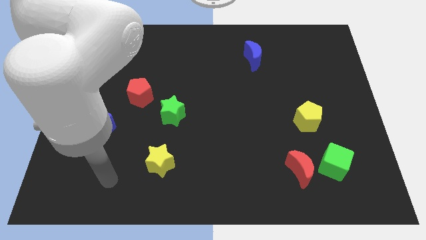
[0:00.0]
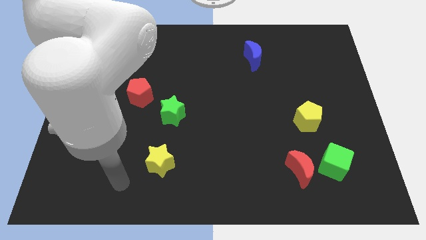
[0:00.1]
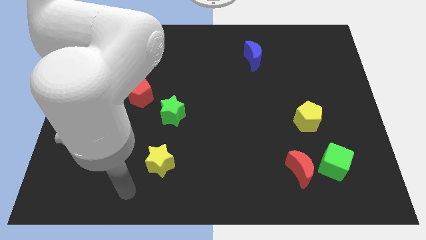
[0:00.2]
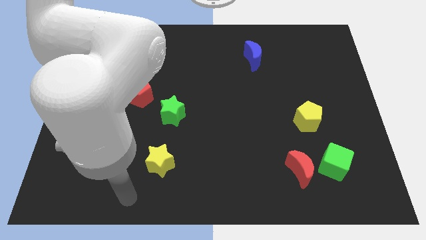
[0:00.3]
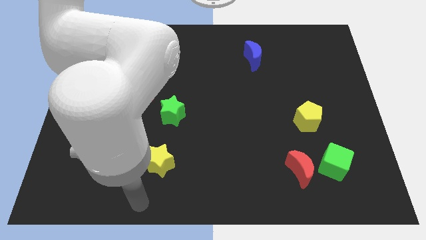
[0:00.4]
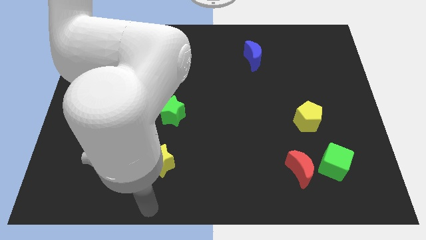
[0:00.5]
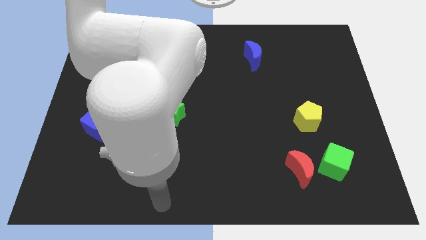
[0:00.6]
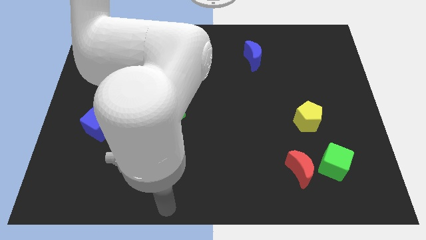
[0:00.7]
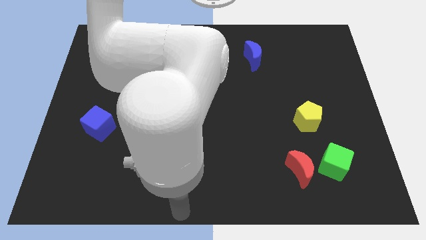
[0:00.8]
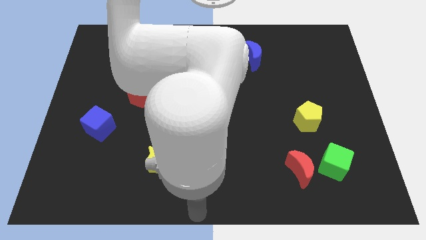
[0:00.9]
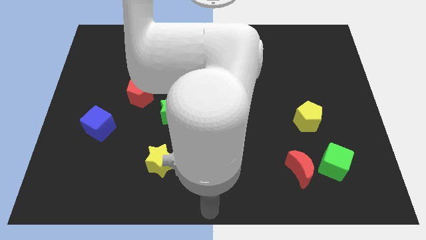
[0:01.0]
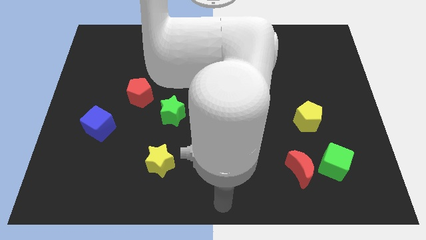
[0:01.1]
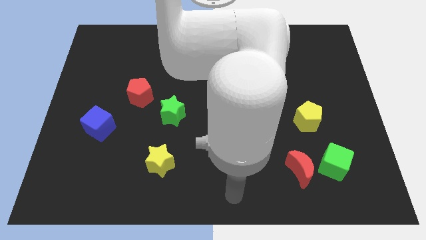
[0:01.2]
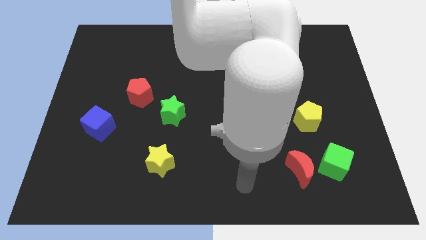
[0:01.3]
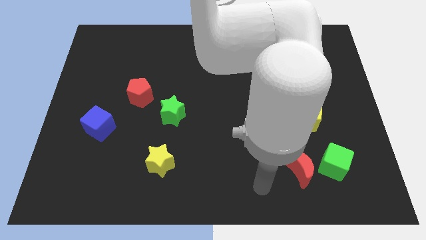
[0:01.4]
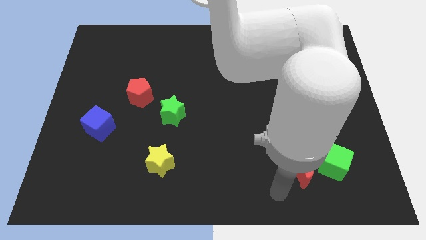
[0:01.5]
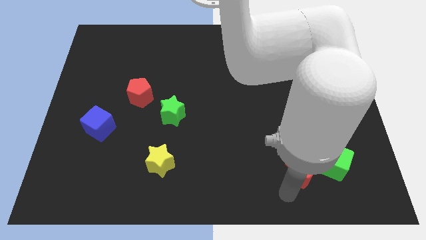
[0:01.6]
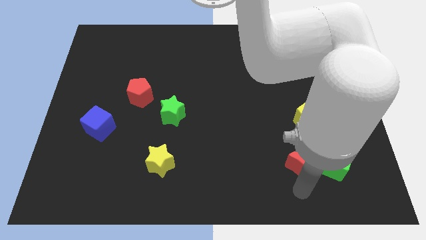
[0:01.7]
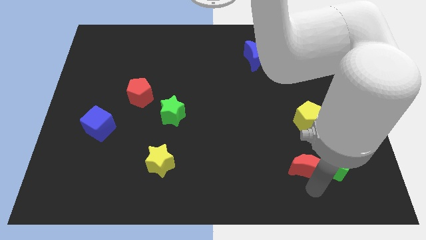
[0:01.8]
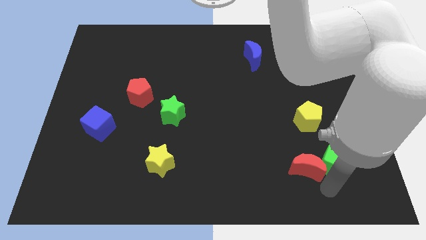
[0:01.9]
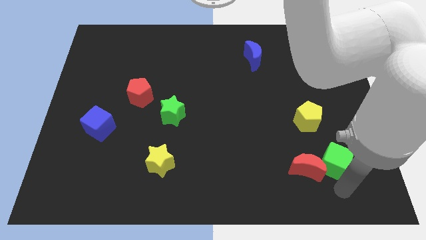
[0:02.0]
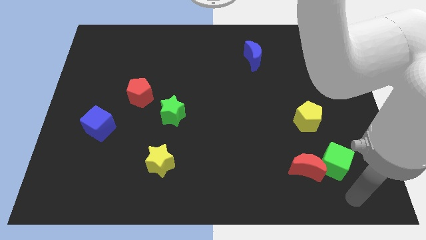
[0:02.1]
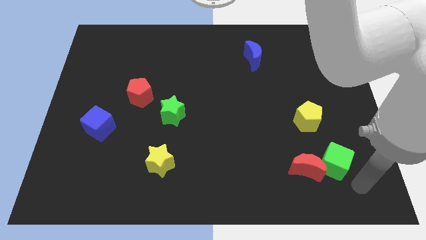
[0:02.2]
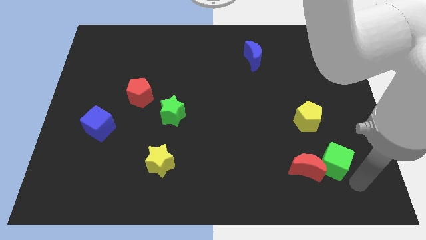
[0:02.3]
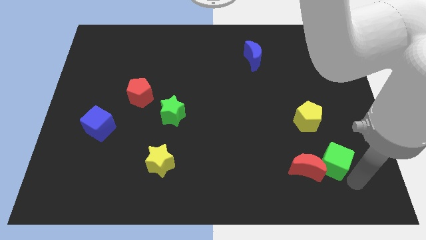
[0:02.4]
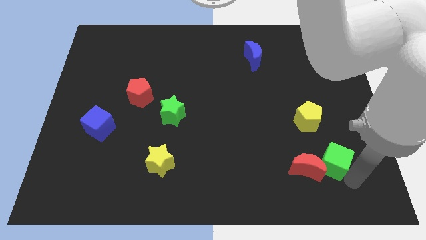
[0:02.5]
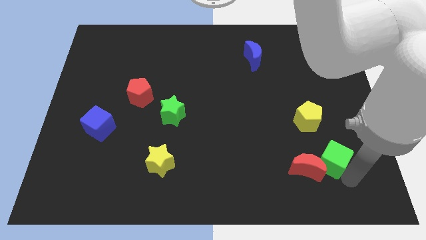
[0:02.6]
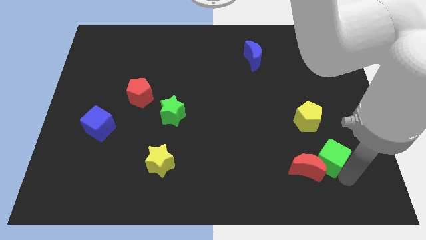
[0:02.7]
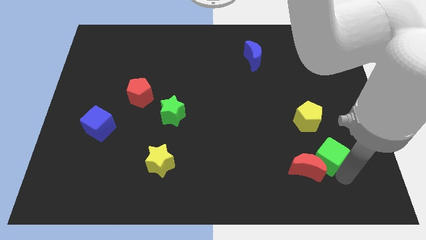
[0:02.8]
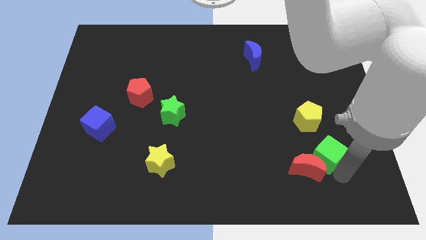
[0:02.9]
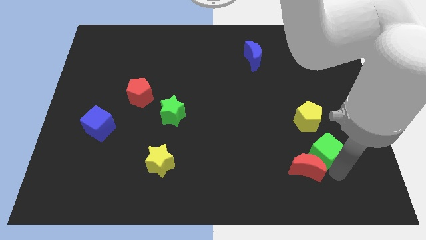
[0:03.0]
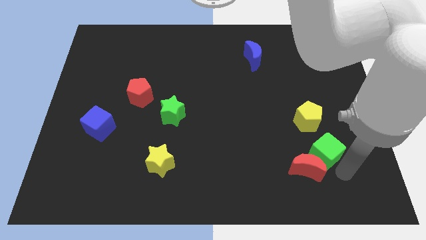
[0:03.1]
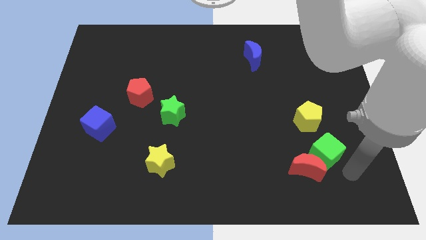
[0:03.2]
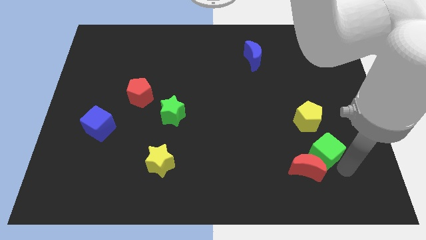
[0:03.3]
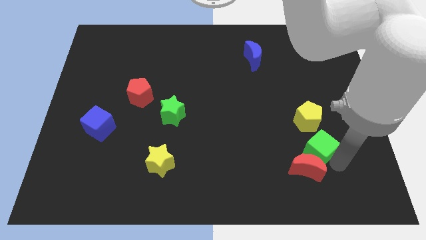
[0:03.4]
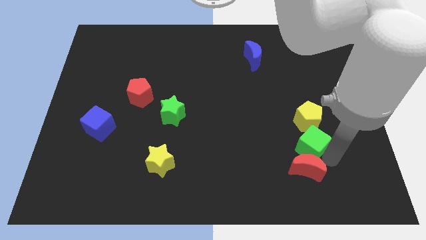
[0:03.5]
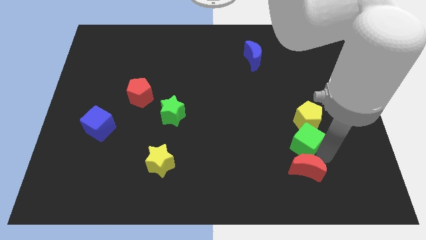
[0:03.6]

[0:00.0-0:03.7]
push the green cube slightly diagonally up and left

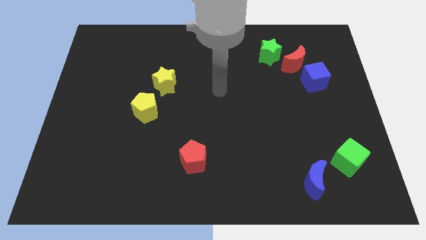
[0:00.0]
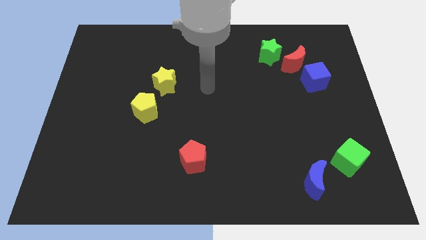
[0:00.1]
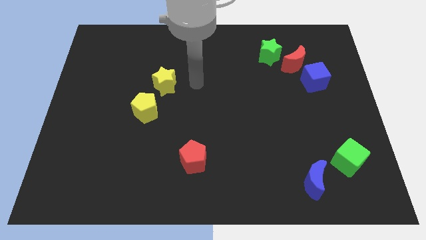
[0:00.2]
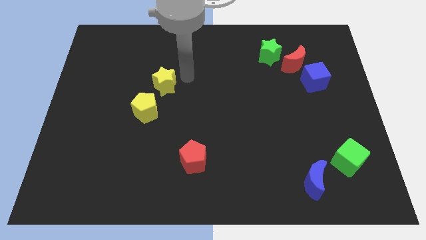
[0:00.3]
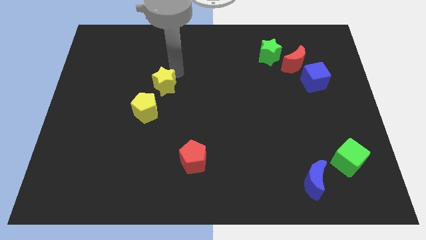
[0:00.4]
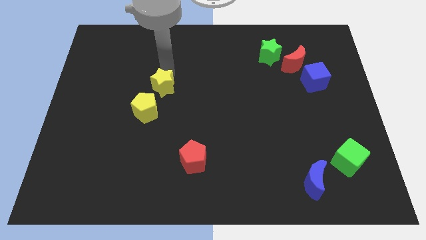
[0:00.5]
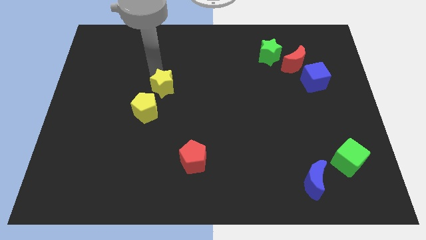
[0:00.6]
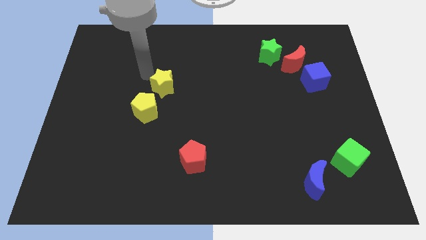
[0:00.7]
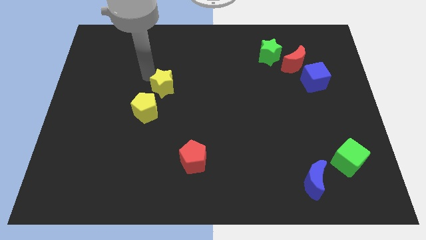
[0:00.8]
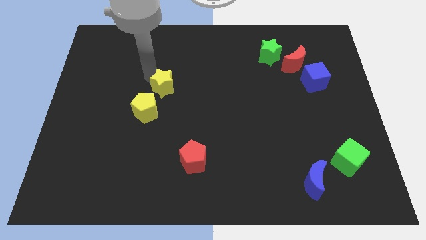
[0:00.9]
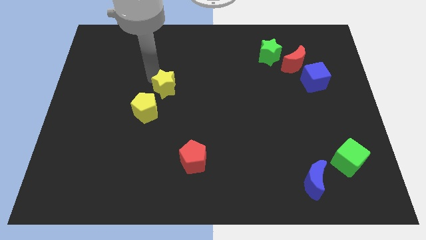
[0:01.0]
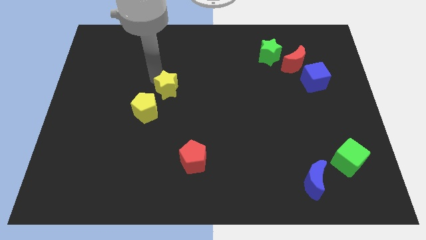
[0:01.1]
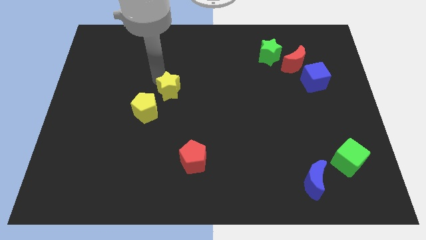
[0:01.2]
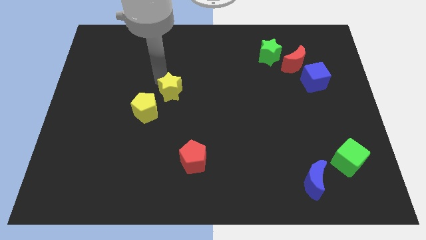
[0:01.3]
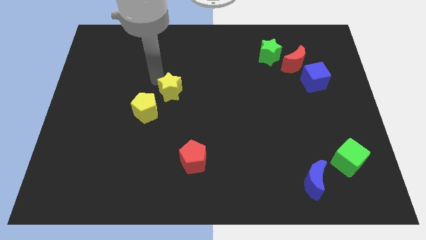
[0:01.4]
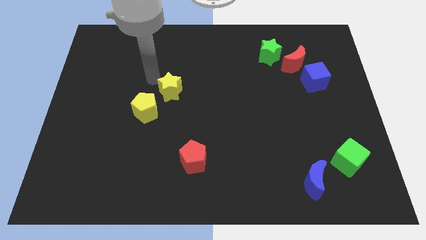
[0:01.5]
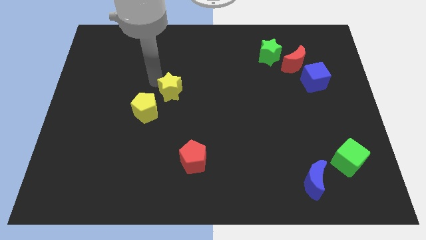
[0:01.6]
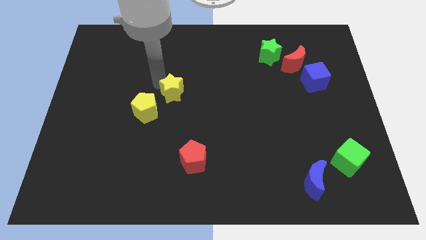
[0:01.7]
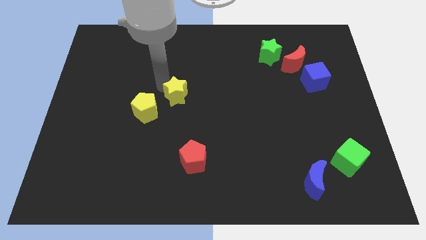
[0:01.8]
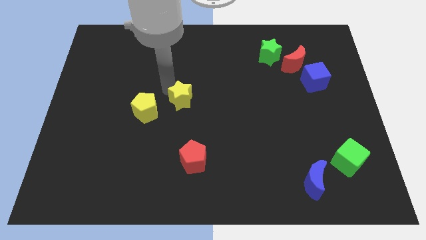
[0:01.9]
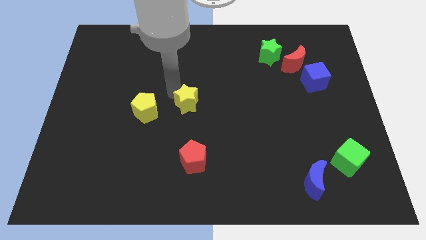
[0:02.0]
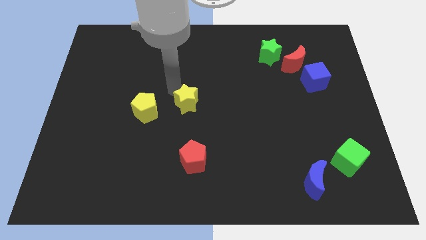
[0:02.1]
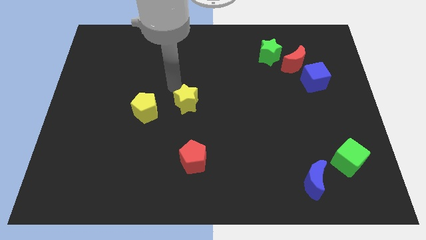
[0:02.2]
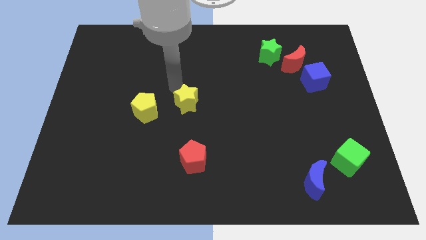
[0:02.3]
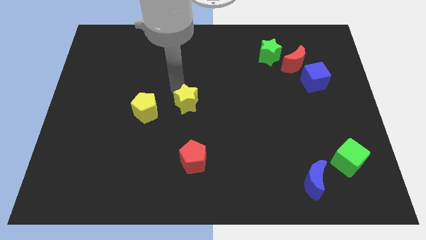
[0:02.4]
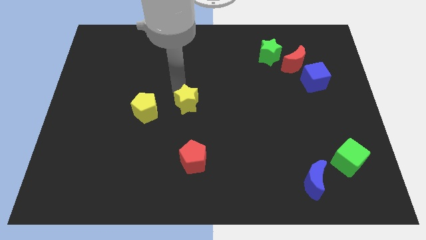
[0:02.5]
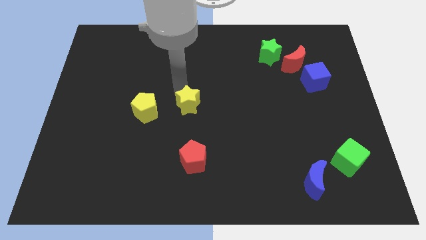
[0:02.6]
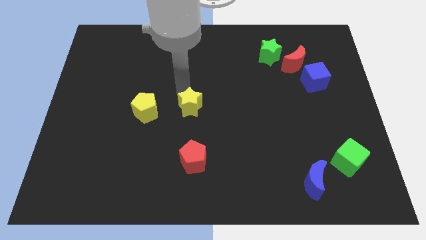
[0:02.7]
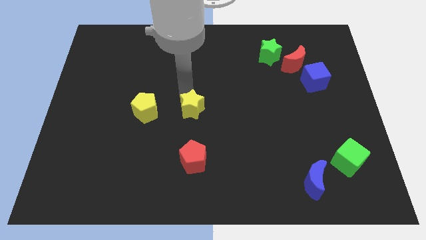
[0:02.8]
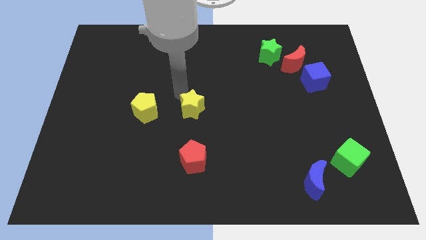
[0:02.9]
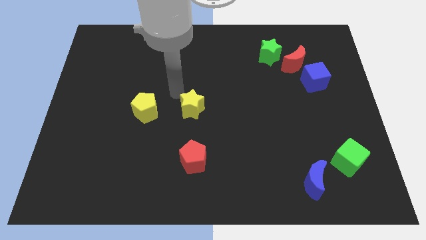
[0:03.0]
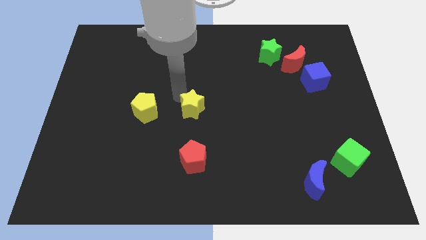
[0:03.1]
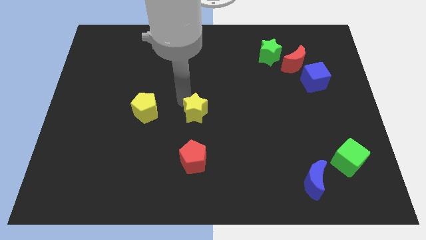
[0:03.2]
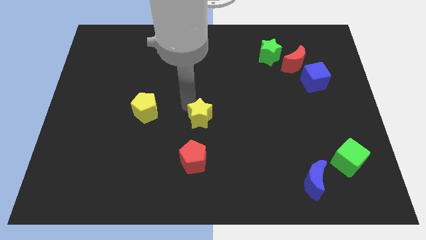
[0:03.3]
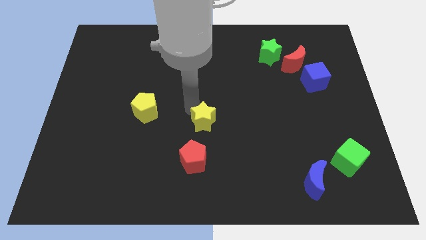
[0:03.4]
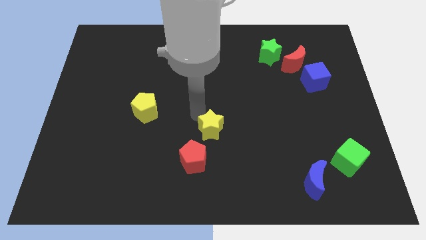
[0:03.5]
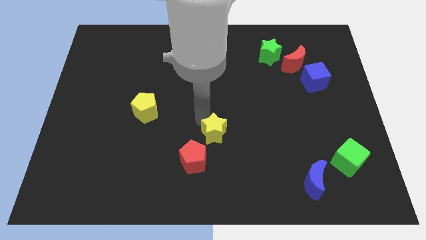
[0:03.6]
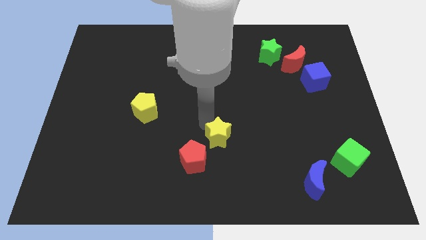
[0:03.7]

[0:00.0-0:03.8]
move the yellow star down and then to the right

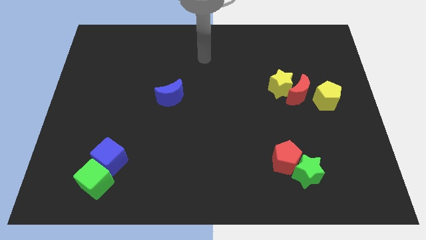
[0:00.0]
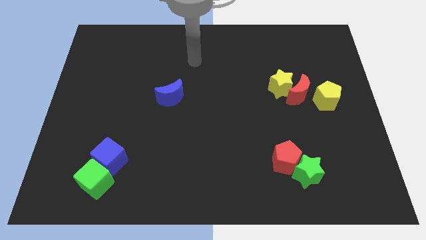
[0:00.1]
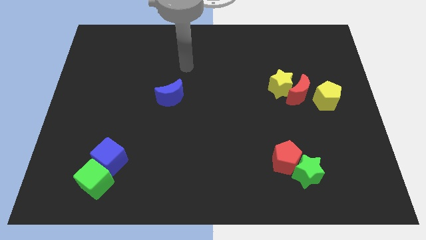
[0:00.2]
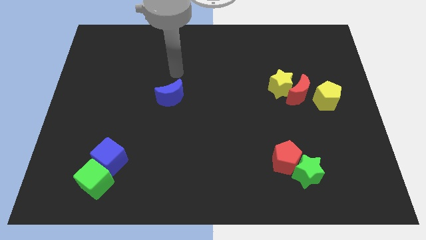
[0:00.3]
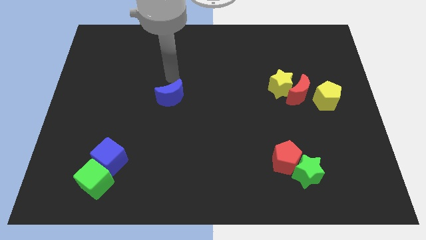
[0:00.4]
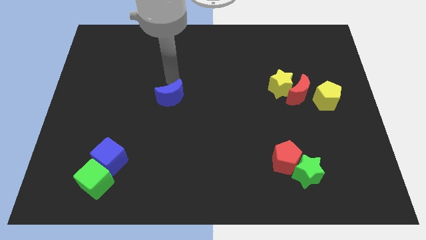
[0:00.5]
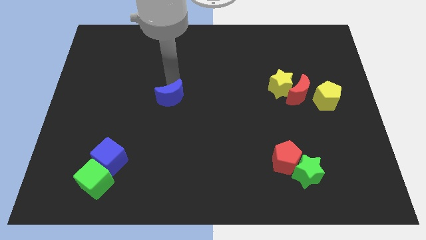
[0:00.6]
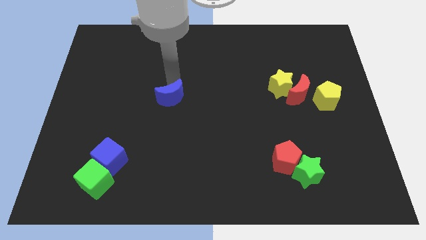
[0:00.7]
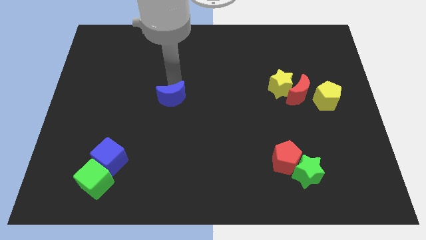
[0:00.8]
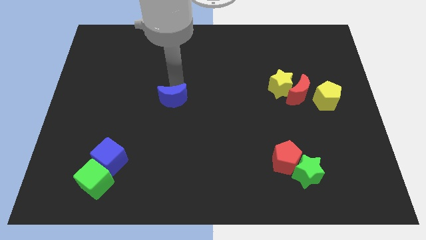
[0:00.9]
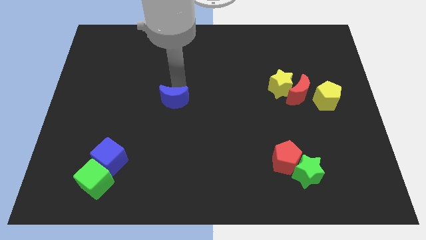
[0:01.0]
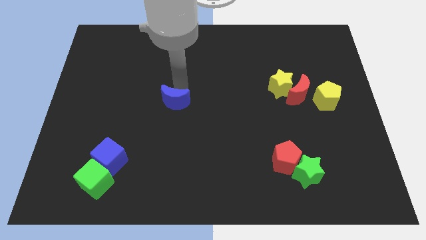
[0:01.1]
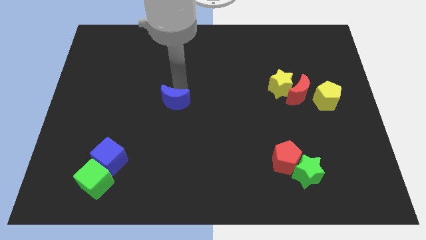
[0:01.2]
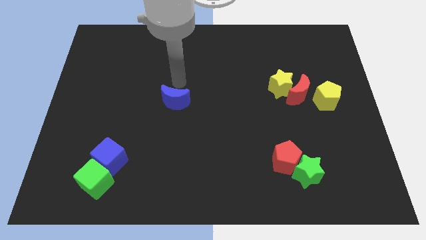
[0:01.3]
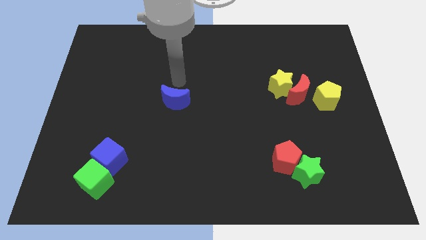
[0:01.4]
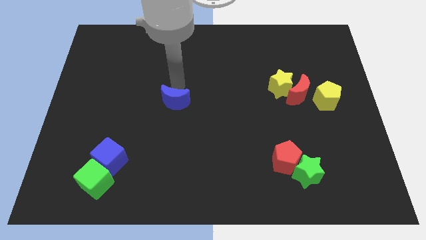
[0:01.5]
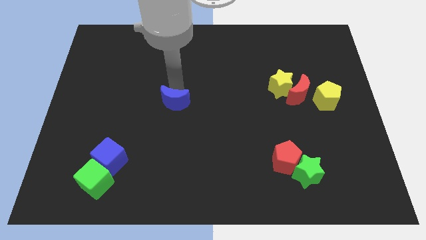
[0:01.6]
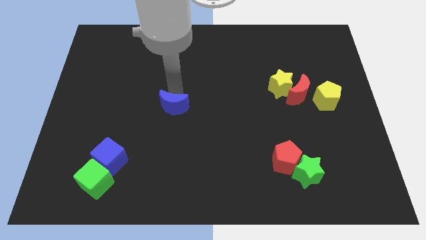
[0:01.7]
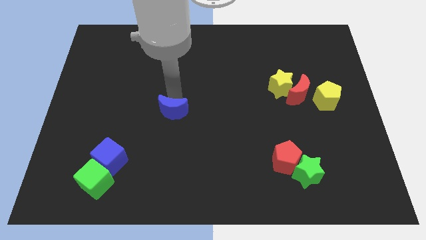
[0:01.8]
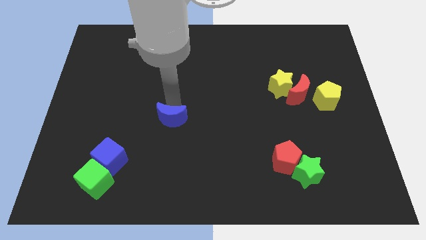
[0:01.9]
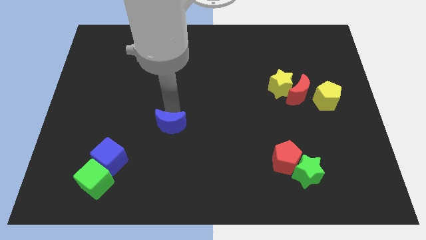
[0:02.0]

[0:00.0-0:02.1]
slightly slide the blue moon downwards
